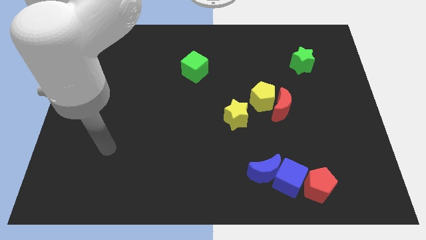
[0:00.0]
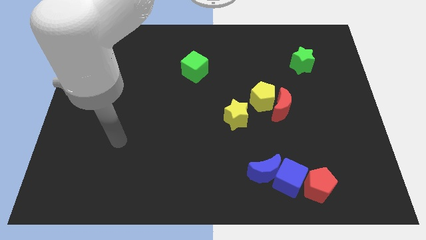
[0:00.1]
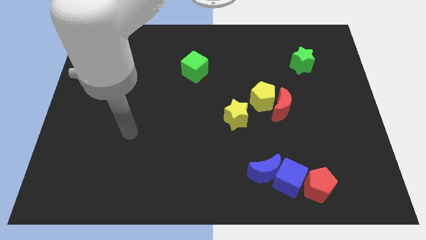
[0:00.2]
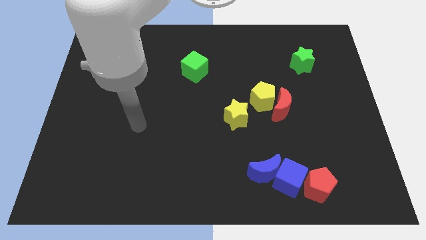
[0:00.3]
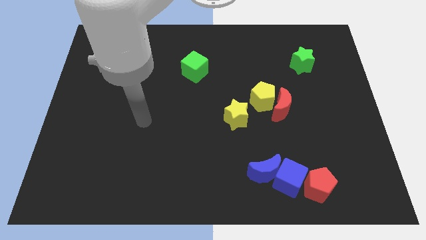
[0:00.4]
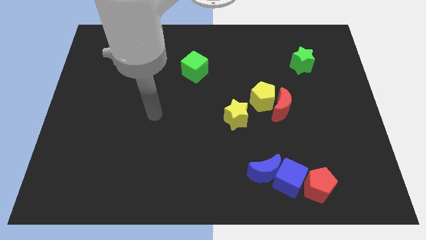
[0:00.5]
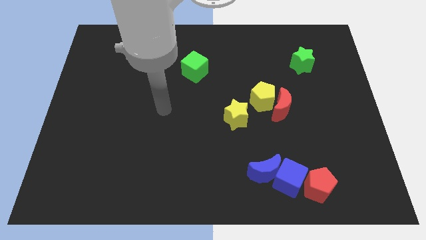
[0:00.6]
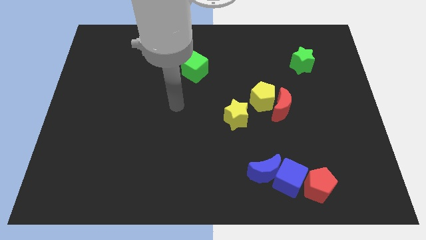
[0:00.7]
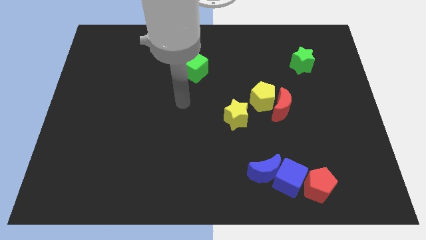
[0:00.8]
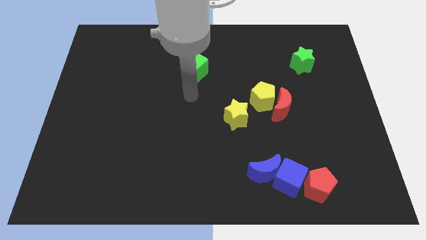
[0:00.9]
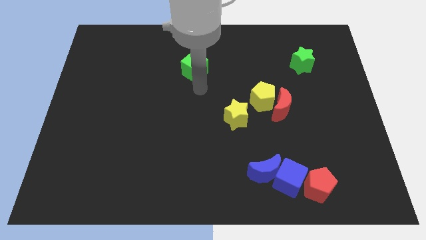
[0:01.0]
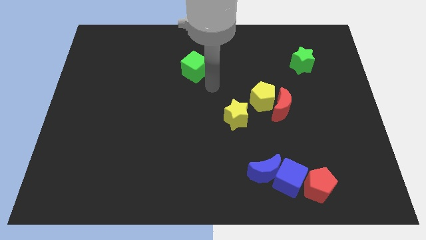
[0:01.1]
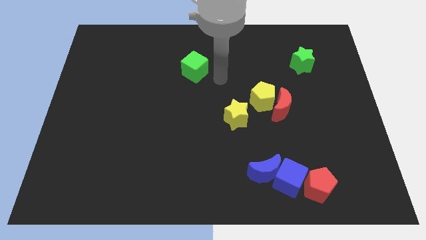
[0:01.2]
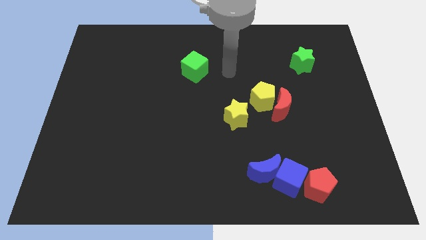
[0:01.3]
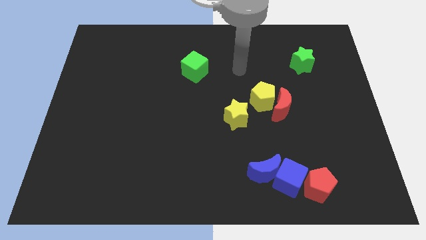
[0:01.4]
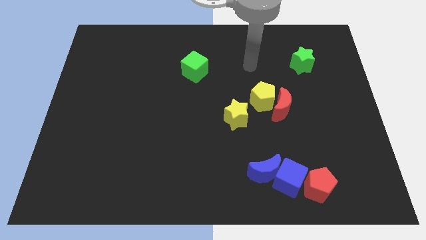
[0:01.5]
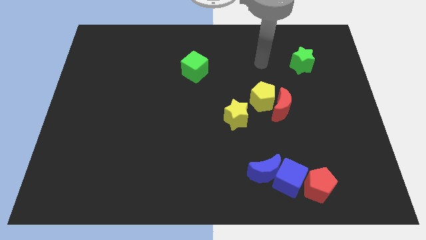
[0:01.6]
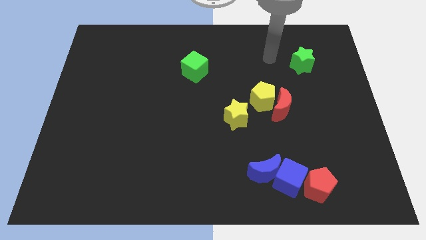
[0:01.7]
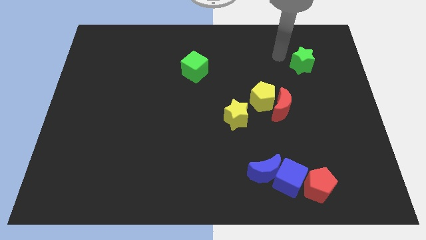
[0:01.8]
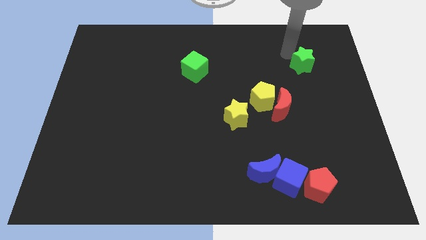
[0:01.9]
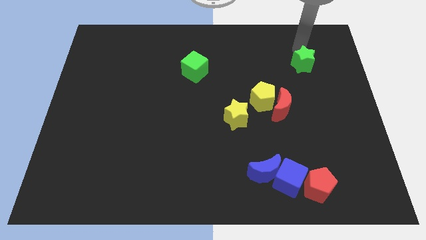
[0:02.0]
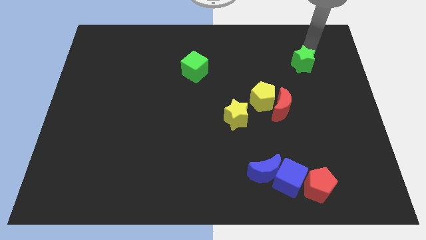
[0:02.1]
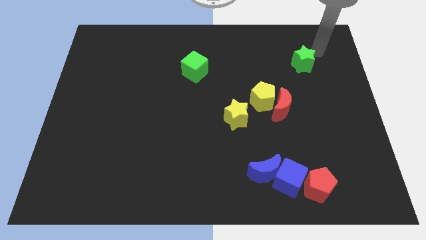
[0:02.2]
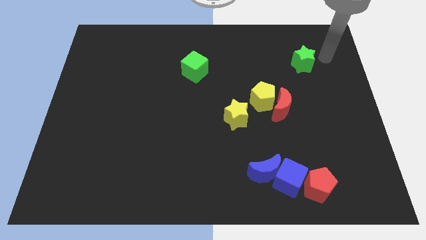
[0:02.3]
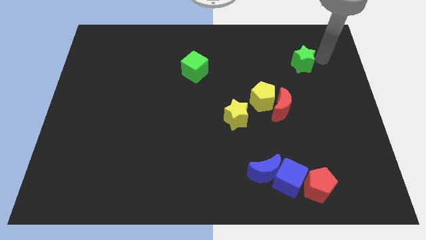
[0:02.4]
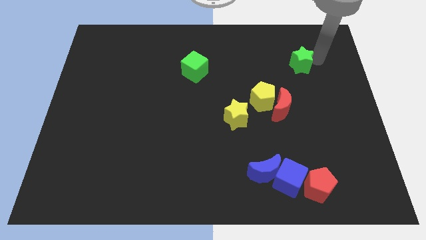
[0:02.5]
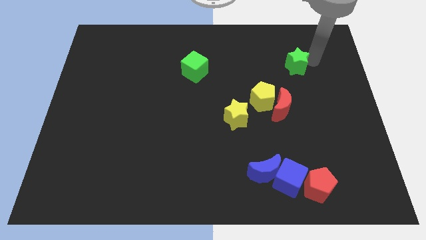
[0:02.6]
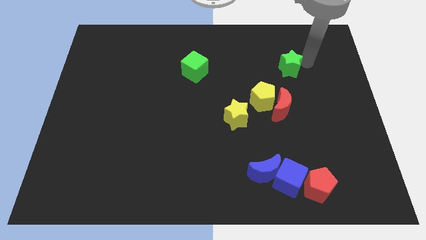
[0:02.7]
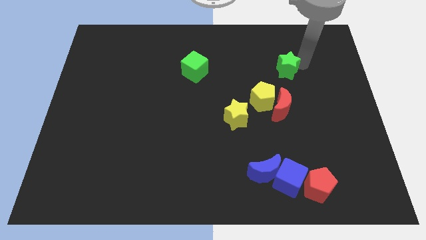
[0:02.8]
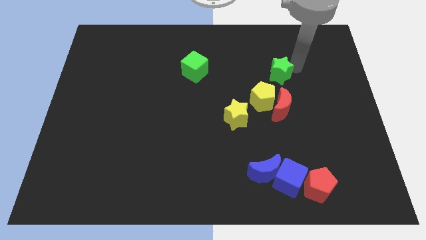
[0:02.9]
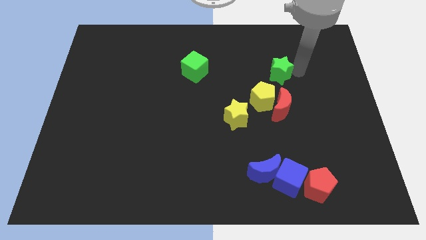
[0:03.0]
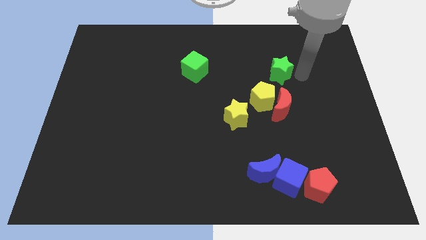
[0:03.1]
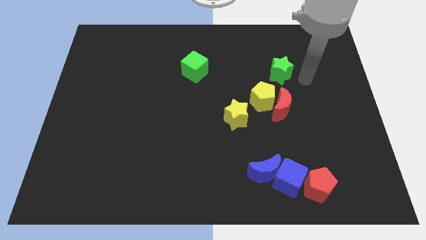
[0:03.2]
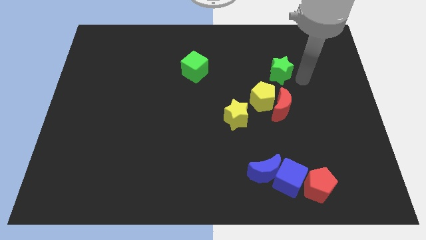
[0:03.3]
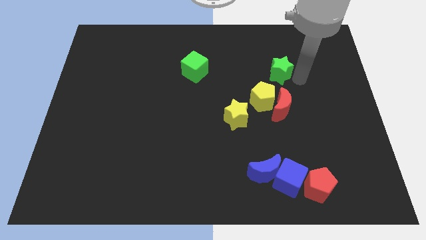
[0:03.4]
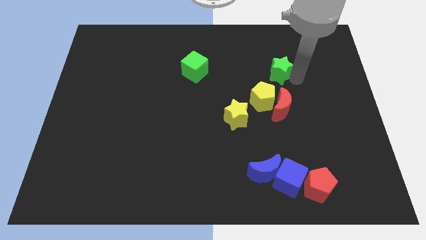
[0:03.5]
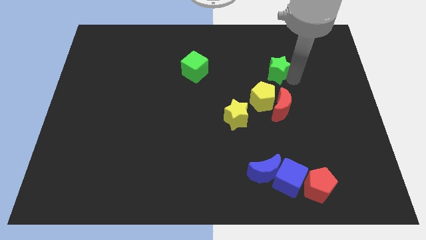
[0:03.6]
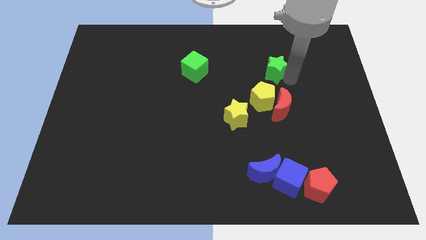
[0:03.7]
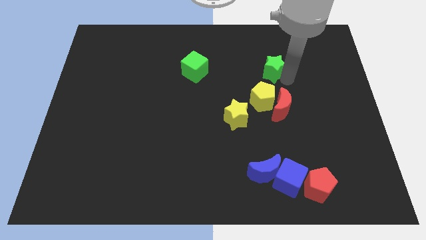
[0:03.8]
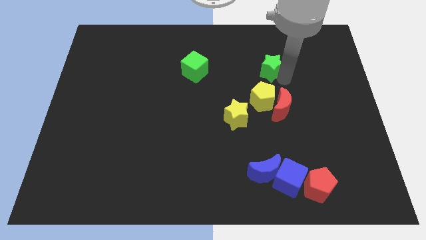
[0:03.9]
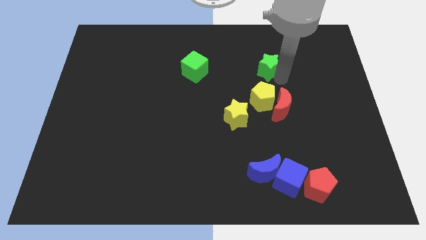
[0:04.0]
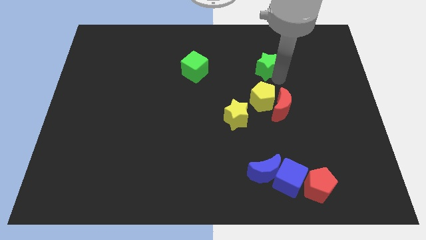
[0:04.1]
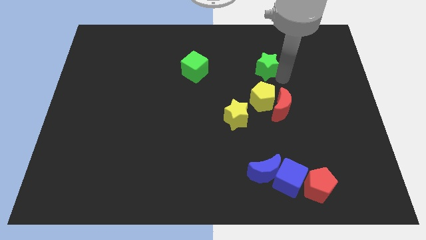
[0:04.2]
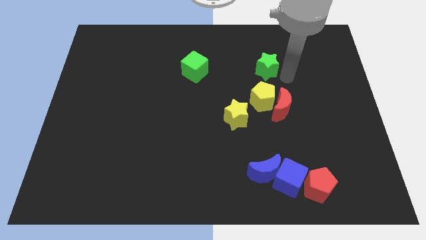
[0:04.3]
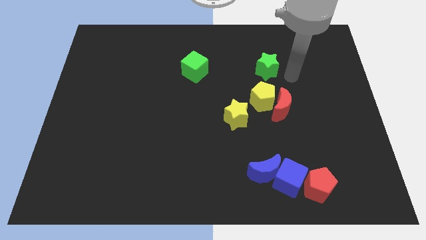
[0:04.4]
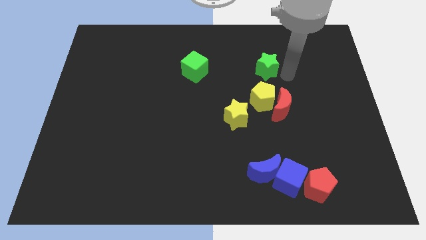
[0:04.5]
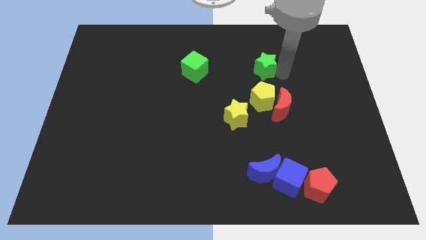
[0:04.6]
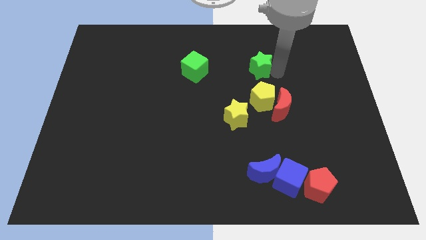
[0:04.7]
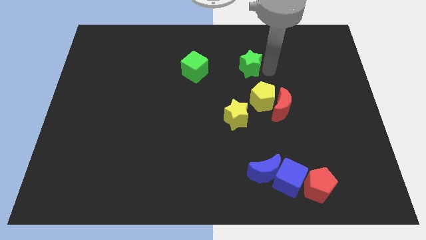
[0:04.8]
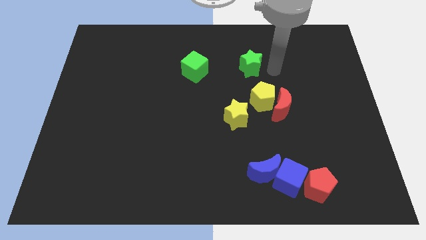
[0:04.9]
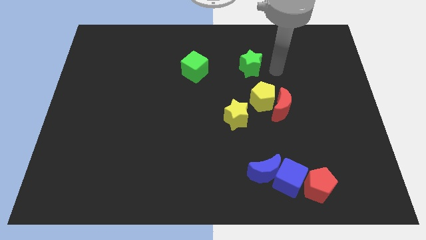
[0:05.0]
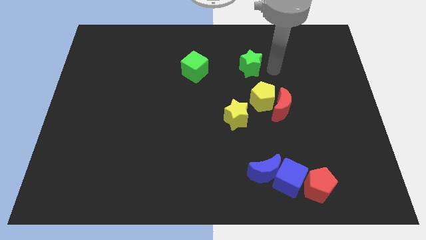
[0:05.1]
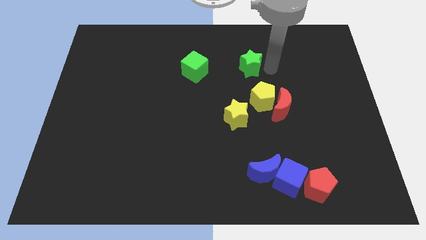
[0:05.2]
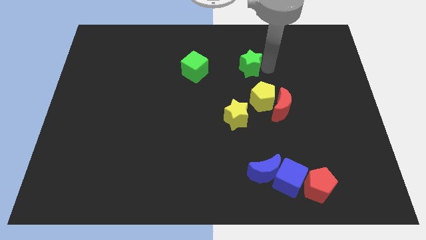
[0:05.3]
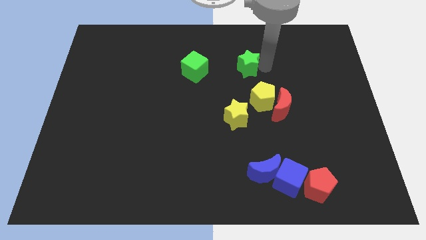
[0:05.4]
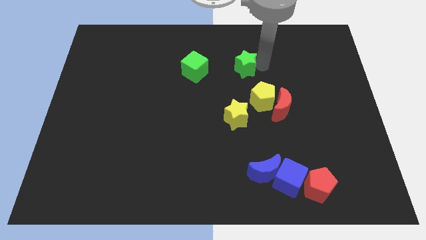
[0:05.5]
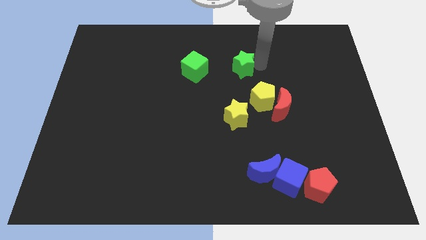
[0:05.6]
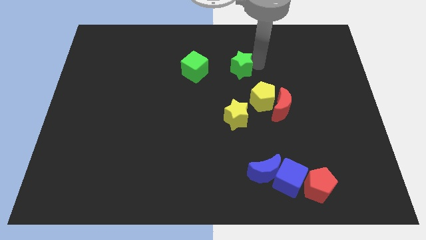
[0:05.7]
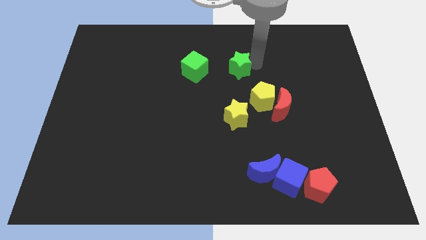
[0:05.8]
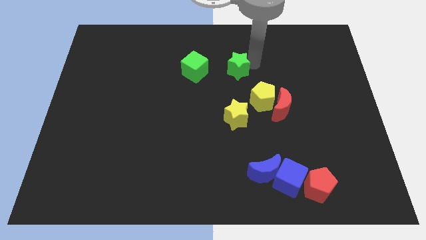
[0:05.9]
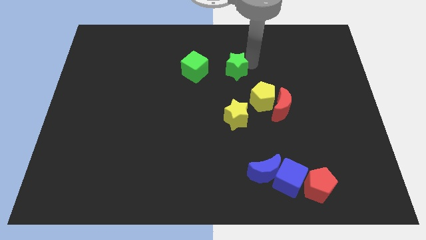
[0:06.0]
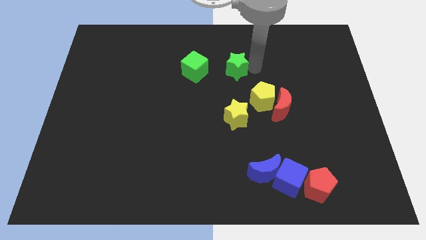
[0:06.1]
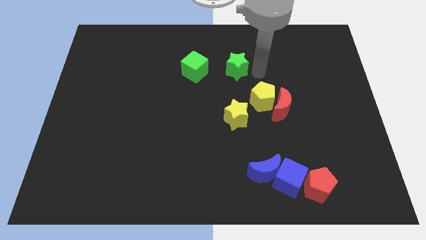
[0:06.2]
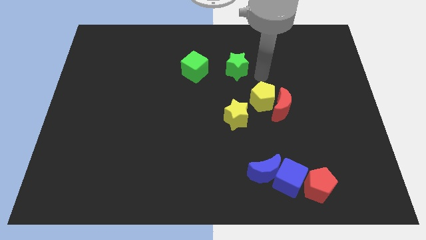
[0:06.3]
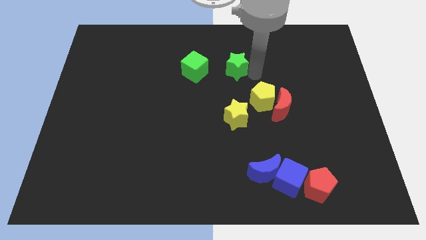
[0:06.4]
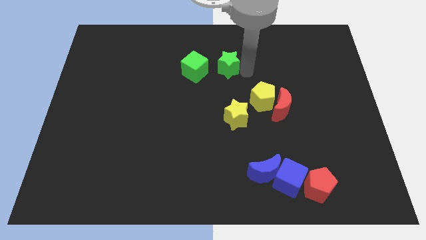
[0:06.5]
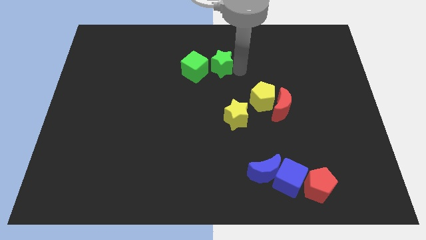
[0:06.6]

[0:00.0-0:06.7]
slide the green star to the left

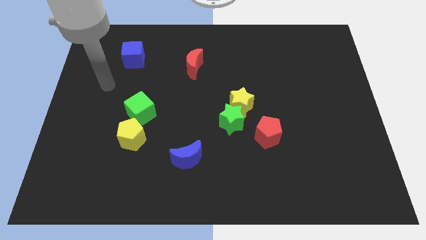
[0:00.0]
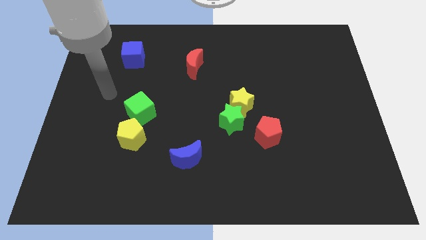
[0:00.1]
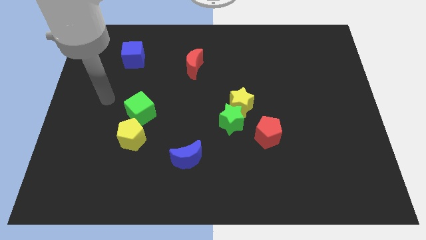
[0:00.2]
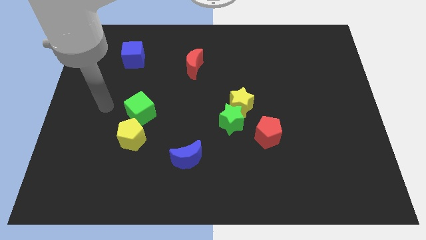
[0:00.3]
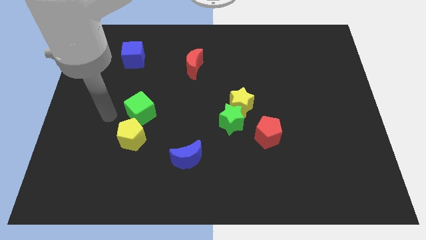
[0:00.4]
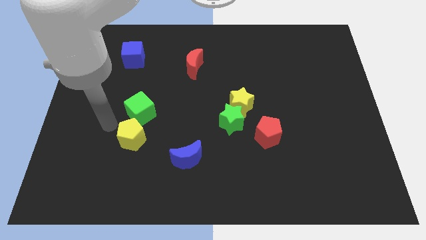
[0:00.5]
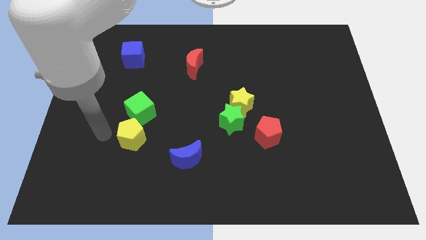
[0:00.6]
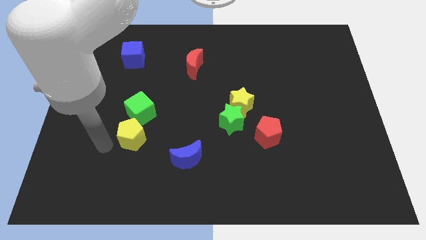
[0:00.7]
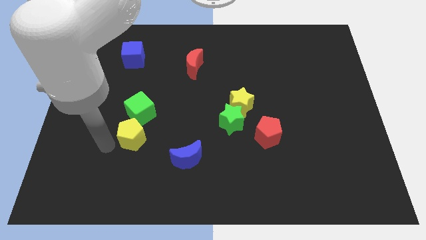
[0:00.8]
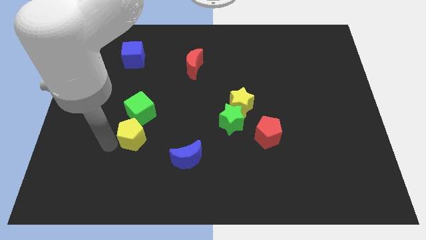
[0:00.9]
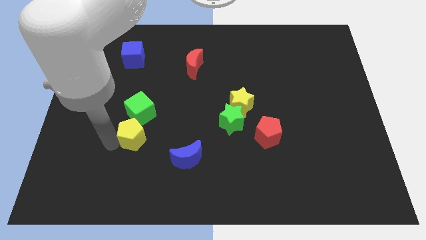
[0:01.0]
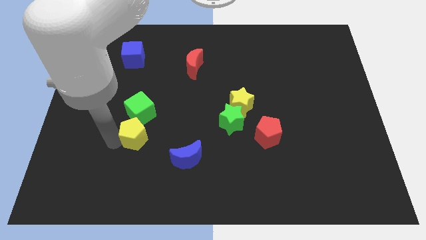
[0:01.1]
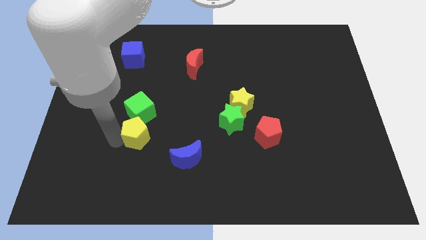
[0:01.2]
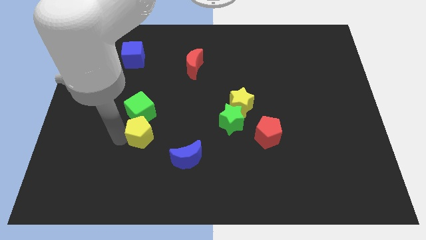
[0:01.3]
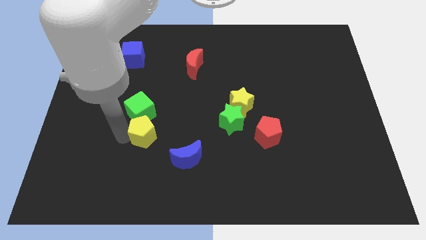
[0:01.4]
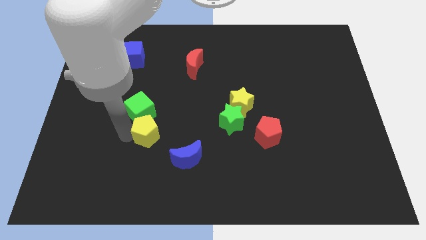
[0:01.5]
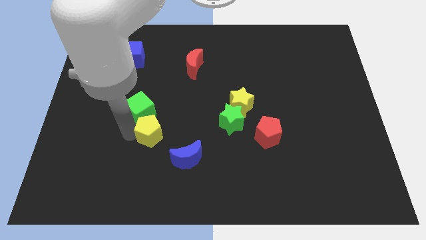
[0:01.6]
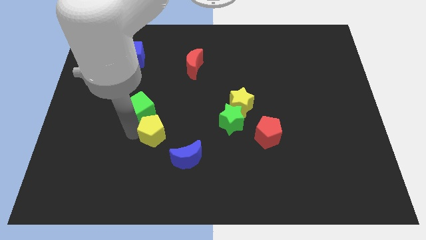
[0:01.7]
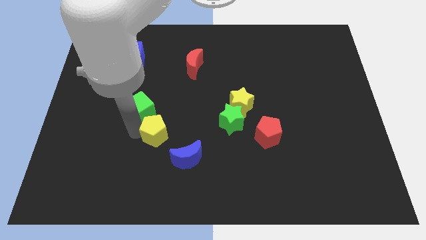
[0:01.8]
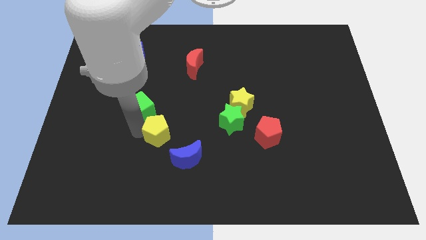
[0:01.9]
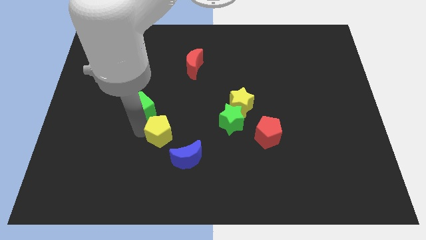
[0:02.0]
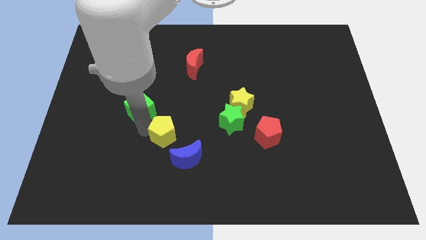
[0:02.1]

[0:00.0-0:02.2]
push the yellow pentagon right somewhat
